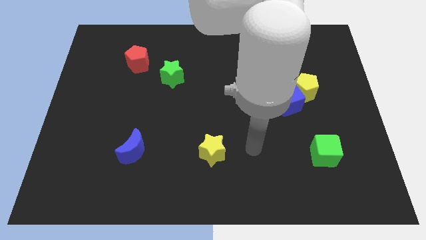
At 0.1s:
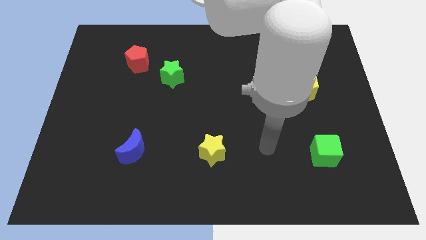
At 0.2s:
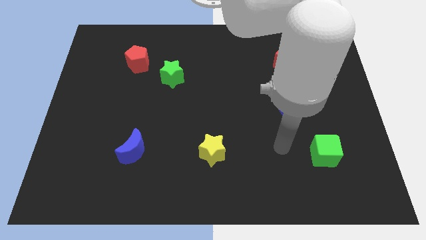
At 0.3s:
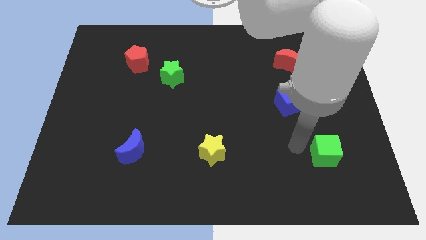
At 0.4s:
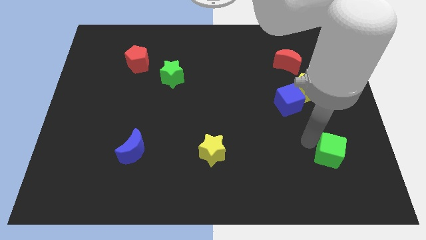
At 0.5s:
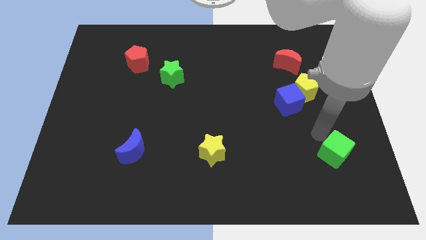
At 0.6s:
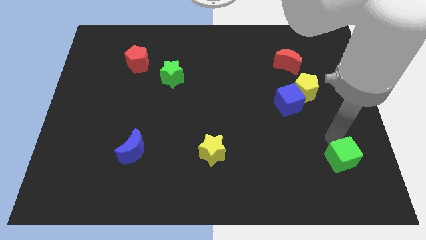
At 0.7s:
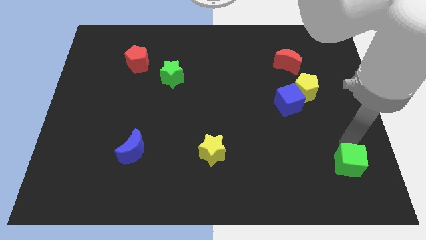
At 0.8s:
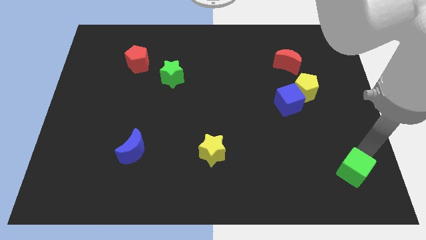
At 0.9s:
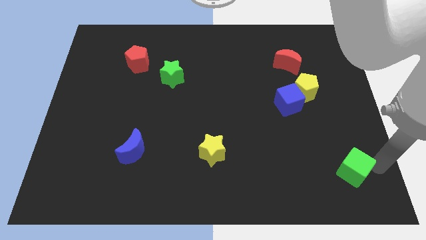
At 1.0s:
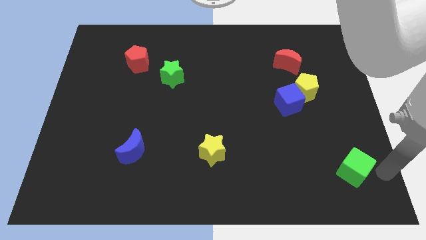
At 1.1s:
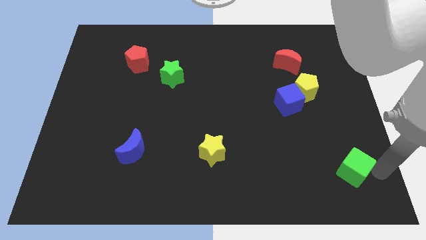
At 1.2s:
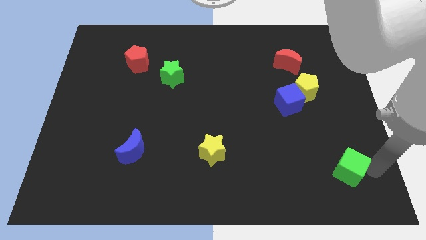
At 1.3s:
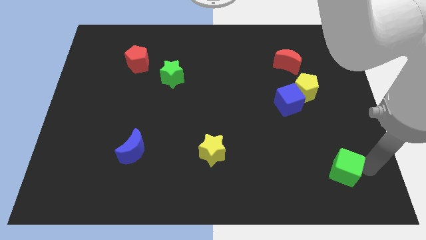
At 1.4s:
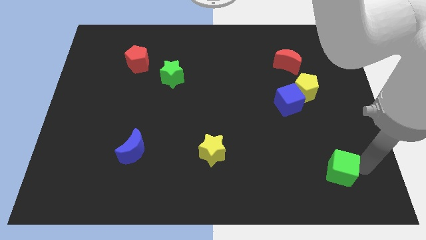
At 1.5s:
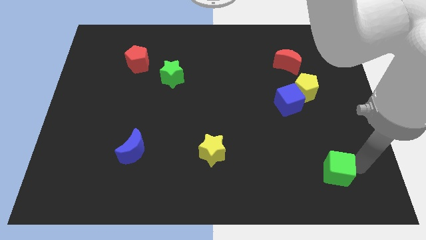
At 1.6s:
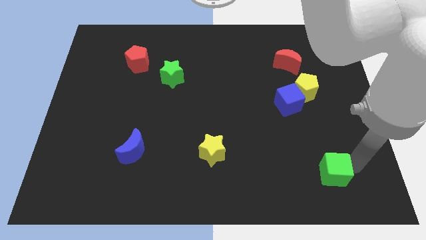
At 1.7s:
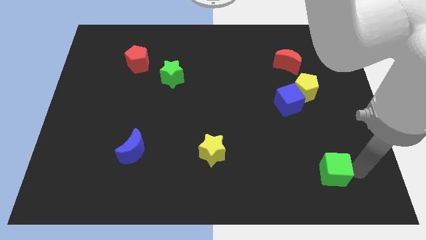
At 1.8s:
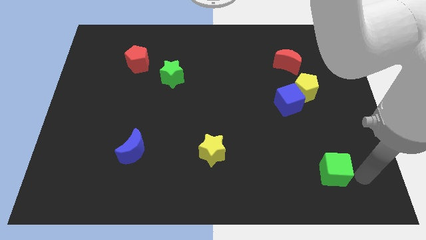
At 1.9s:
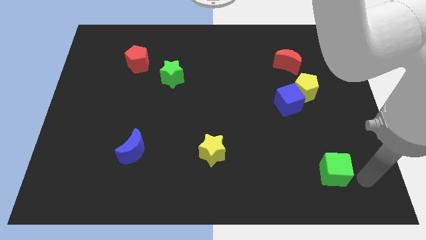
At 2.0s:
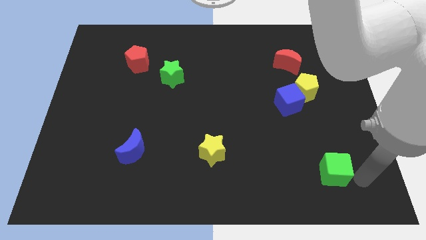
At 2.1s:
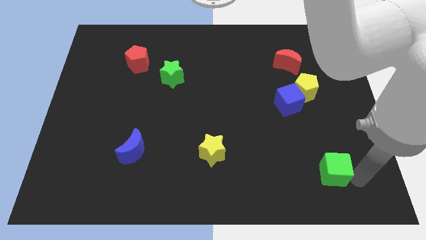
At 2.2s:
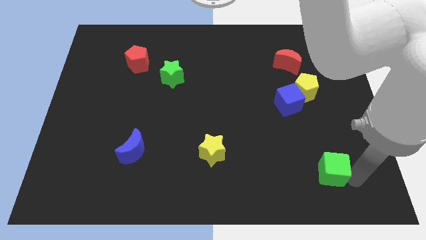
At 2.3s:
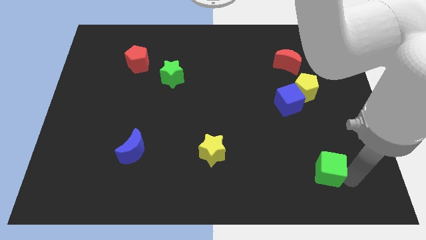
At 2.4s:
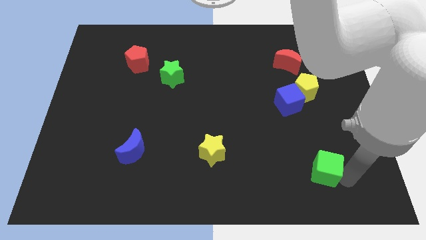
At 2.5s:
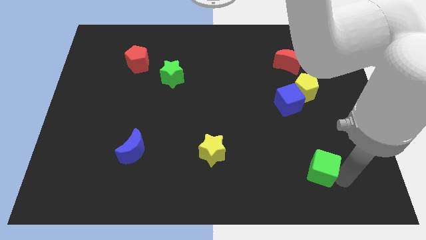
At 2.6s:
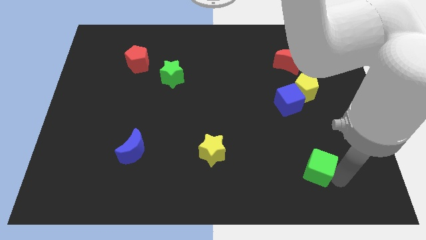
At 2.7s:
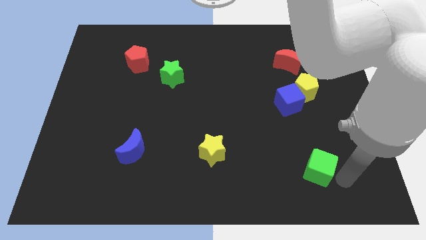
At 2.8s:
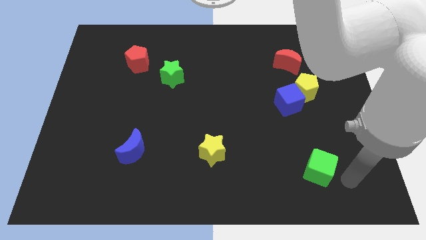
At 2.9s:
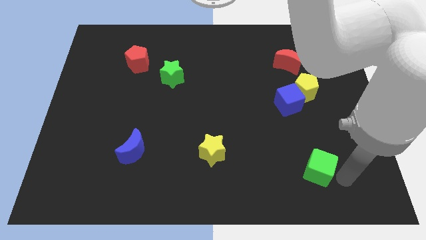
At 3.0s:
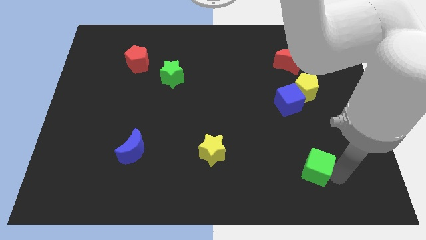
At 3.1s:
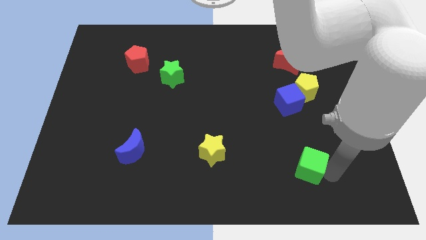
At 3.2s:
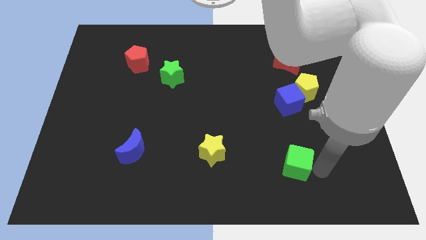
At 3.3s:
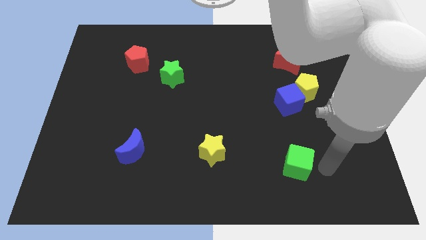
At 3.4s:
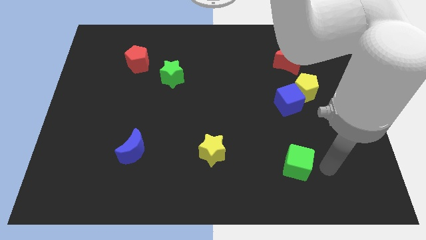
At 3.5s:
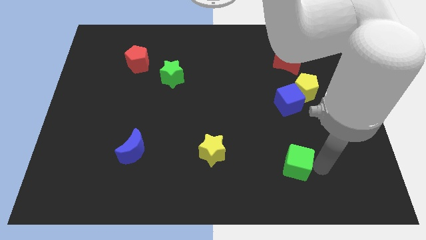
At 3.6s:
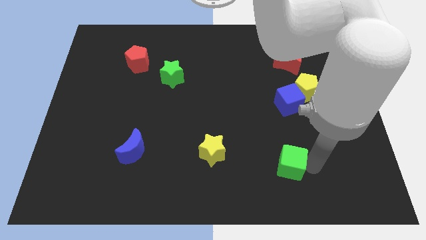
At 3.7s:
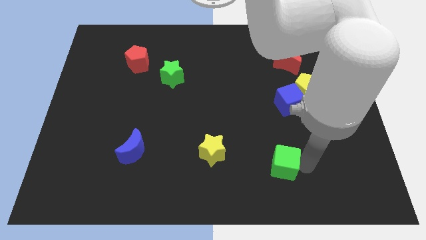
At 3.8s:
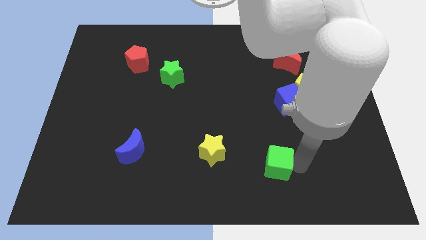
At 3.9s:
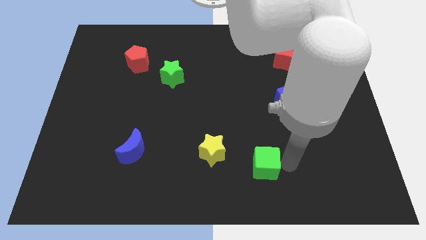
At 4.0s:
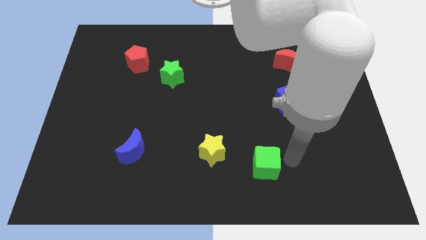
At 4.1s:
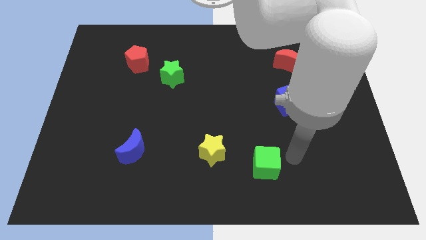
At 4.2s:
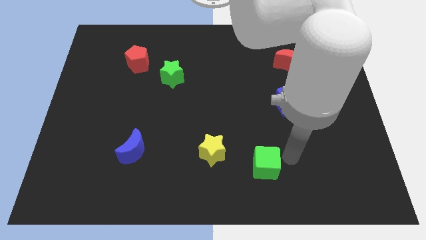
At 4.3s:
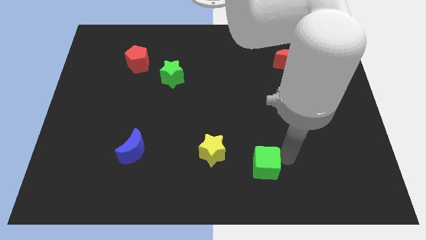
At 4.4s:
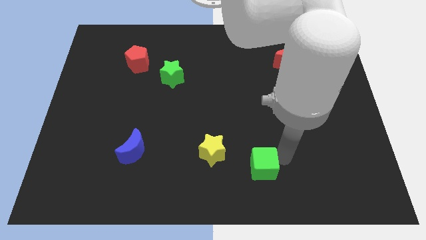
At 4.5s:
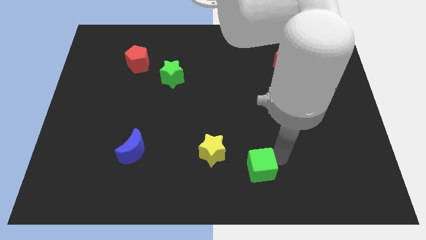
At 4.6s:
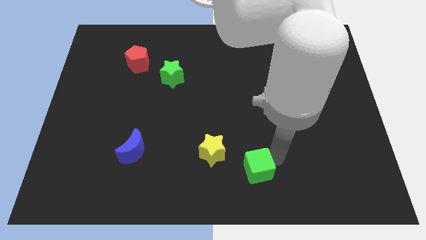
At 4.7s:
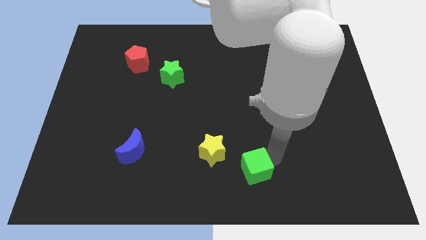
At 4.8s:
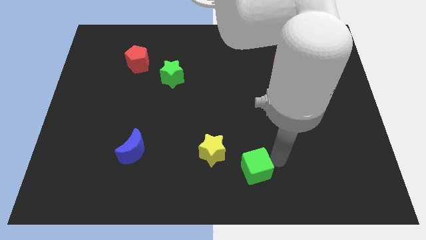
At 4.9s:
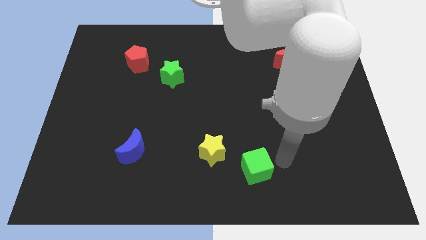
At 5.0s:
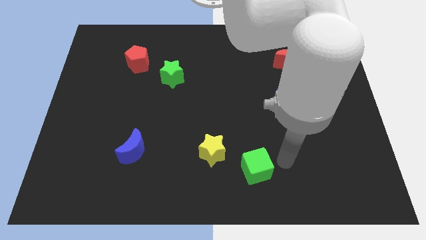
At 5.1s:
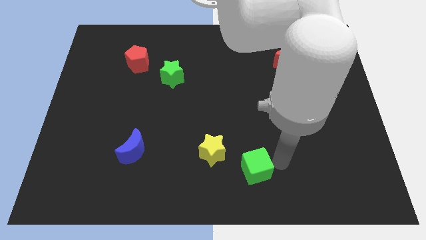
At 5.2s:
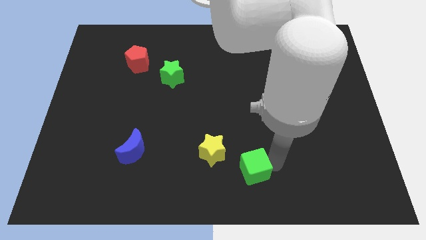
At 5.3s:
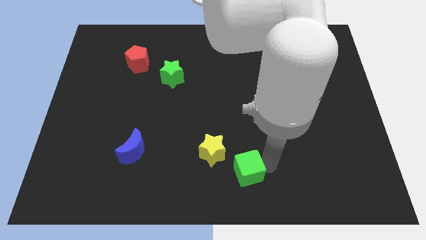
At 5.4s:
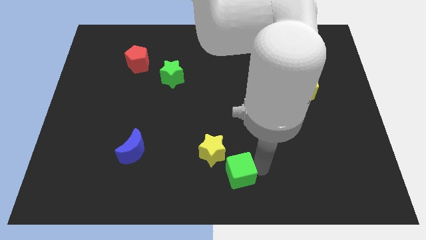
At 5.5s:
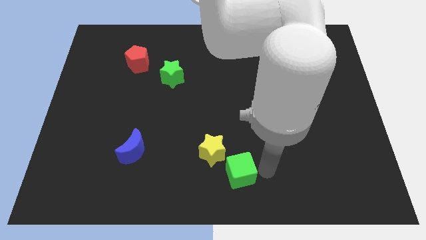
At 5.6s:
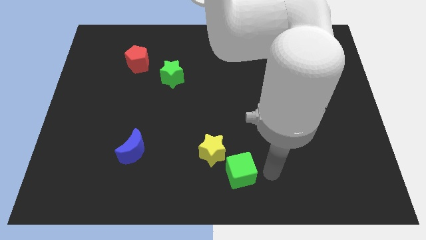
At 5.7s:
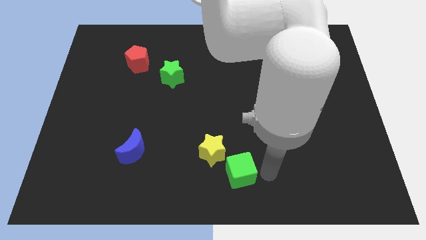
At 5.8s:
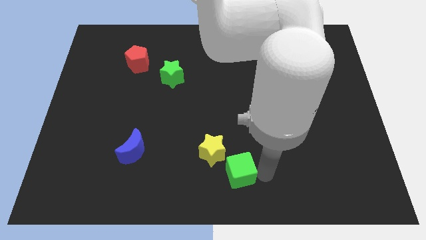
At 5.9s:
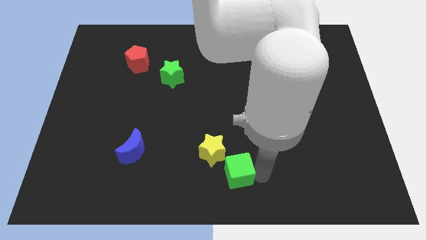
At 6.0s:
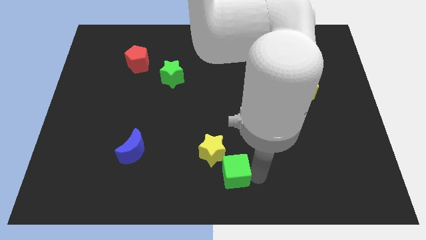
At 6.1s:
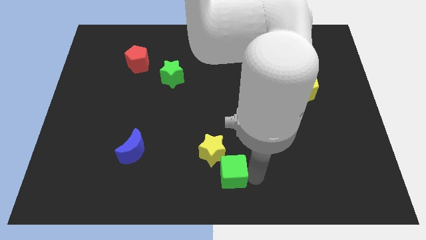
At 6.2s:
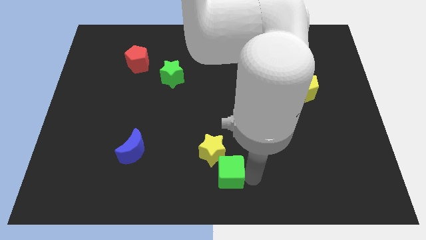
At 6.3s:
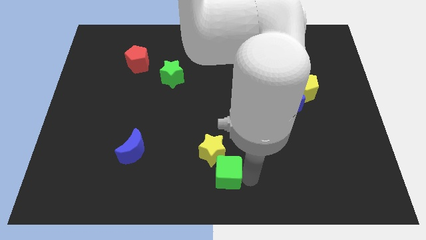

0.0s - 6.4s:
move the green cube left

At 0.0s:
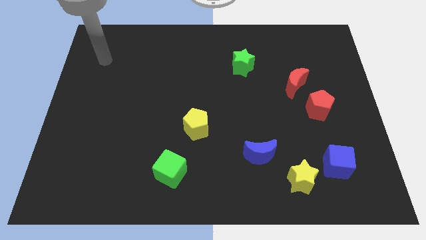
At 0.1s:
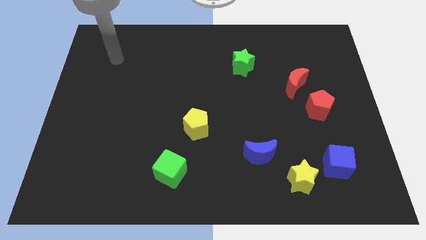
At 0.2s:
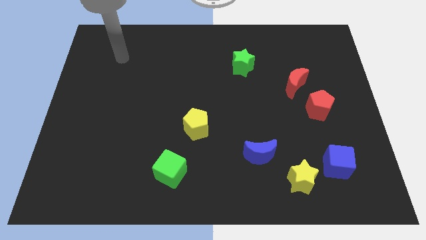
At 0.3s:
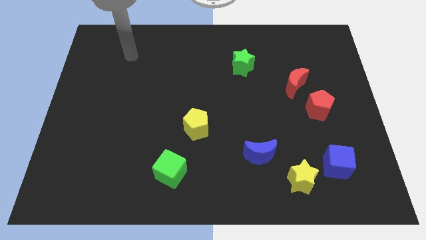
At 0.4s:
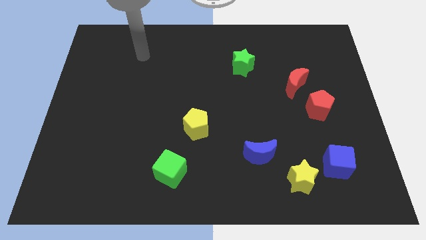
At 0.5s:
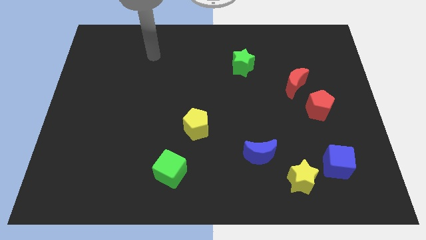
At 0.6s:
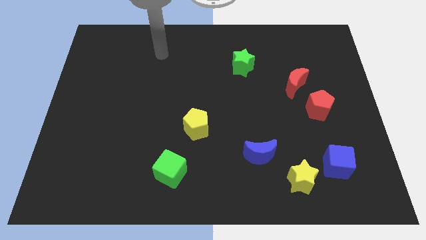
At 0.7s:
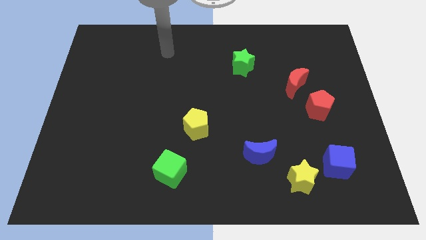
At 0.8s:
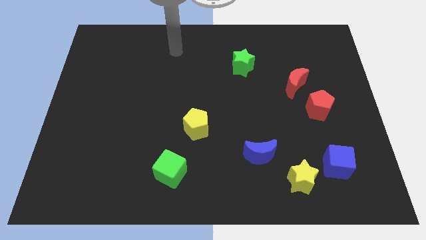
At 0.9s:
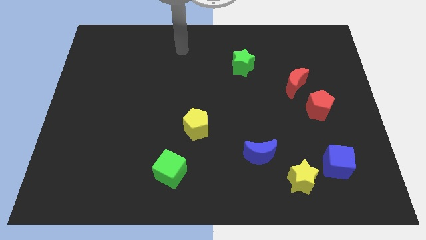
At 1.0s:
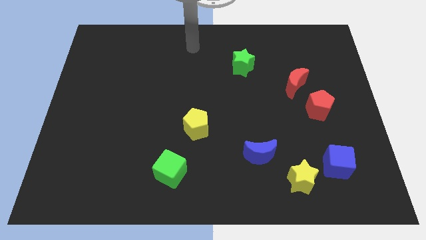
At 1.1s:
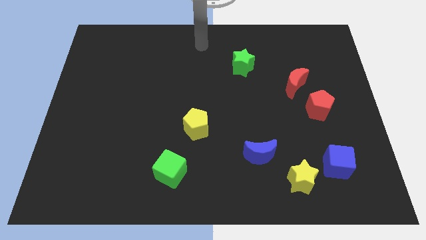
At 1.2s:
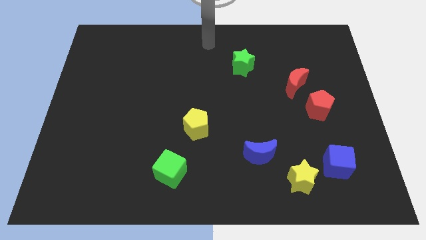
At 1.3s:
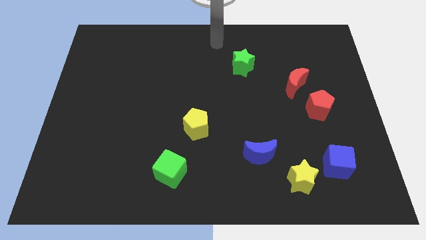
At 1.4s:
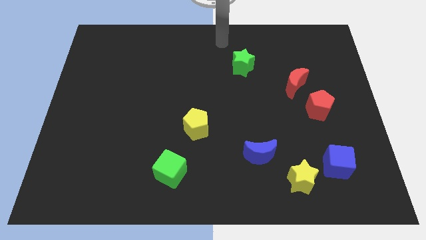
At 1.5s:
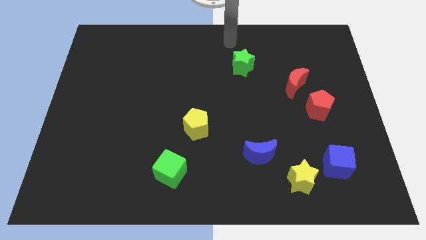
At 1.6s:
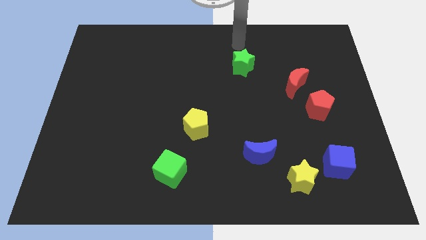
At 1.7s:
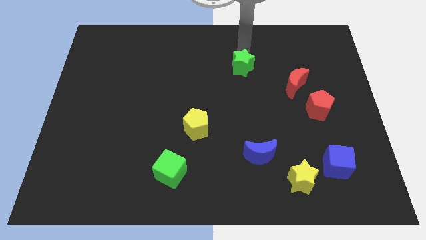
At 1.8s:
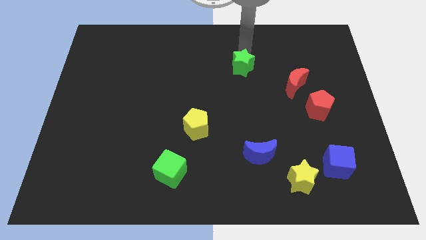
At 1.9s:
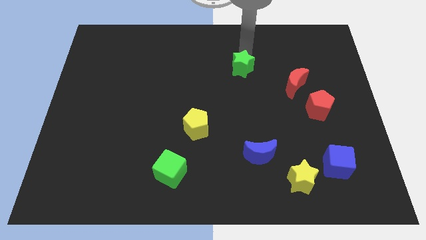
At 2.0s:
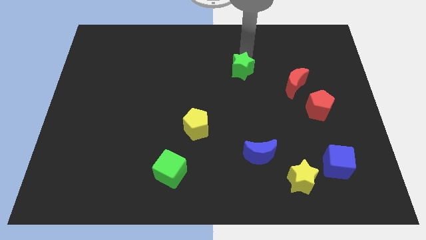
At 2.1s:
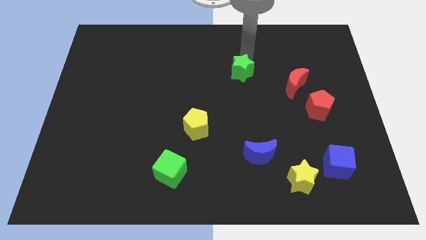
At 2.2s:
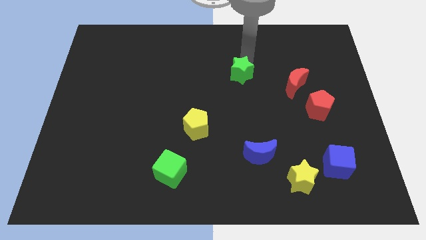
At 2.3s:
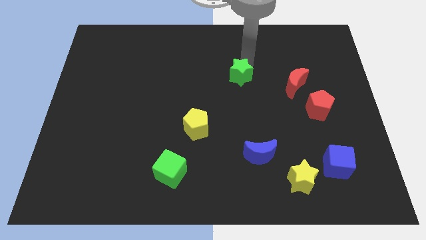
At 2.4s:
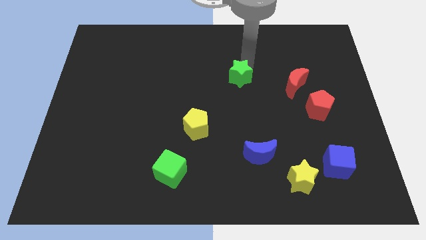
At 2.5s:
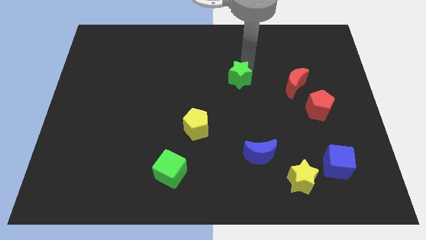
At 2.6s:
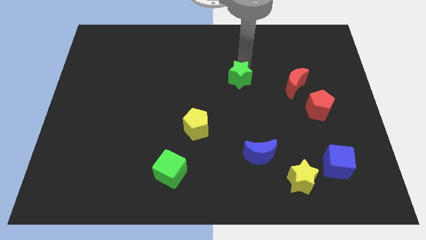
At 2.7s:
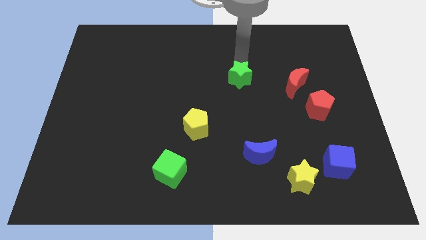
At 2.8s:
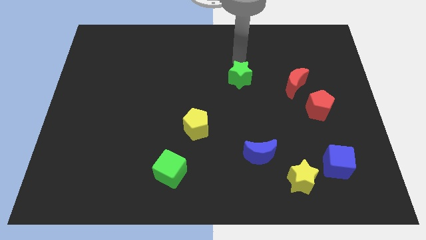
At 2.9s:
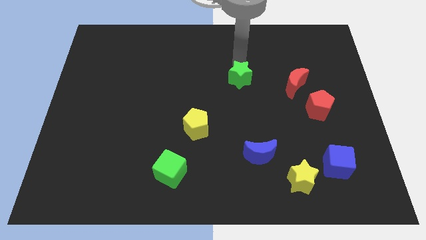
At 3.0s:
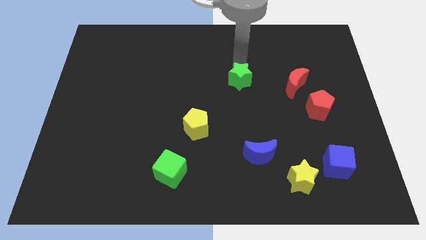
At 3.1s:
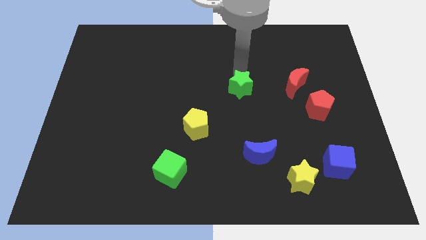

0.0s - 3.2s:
push the green star slightly downwards
